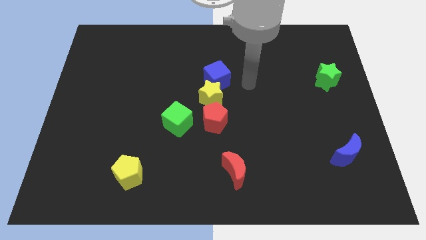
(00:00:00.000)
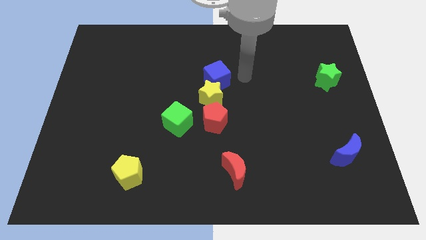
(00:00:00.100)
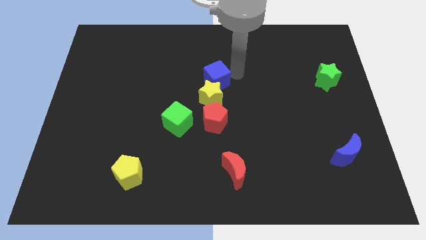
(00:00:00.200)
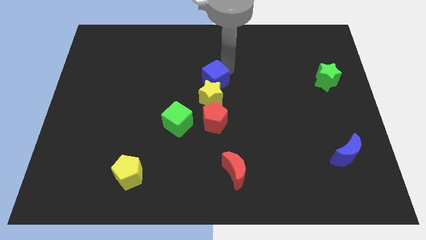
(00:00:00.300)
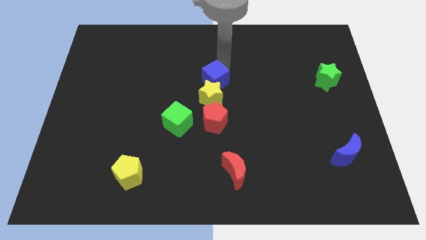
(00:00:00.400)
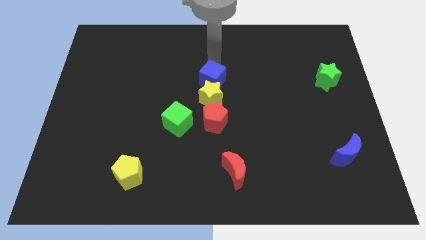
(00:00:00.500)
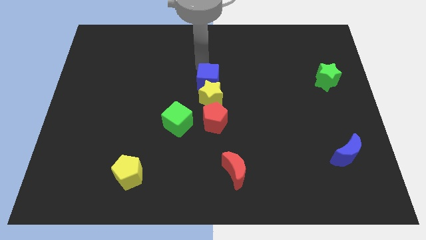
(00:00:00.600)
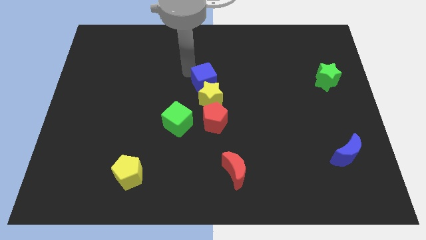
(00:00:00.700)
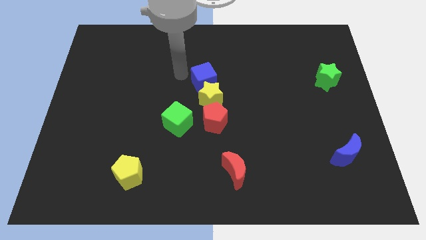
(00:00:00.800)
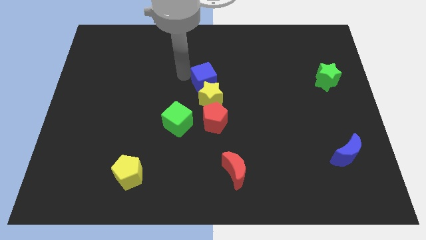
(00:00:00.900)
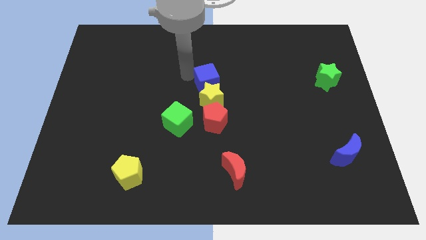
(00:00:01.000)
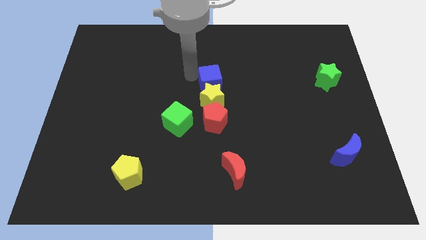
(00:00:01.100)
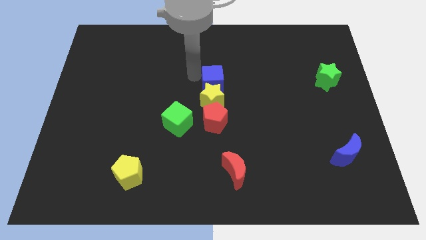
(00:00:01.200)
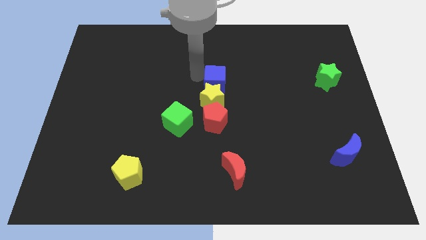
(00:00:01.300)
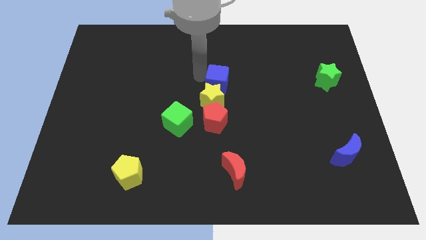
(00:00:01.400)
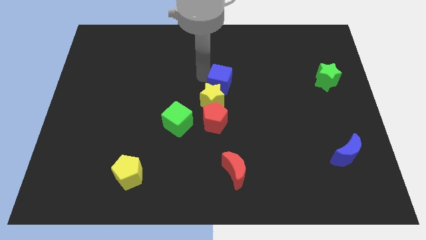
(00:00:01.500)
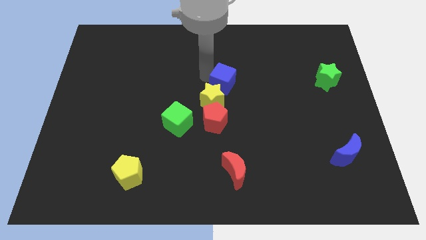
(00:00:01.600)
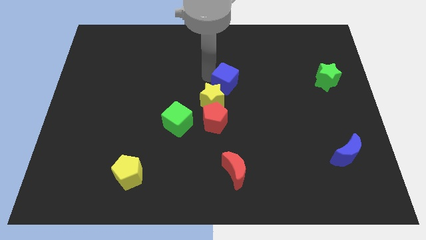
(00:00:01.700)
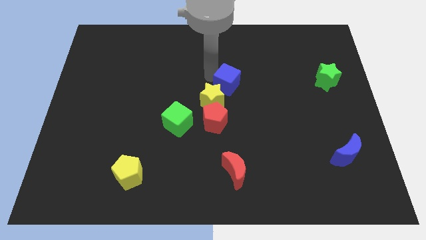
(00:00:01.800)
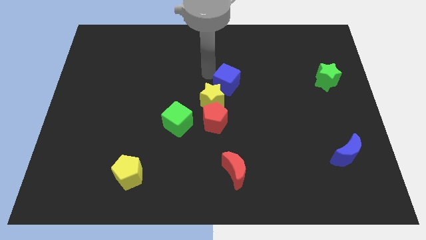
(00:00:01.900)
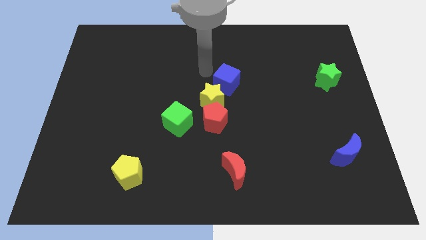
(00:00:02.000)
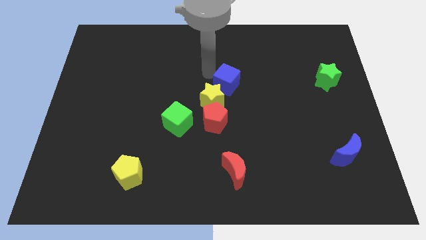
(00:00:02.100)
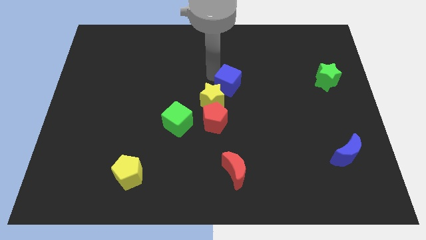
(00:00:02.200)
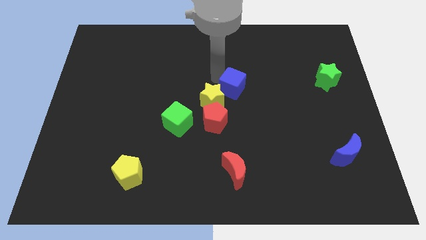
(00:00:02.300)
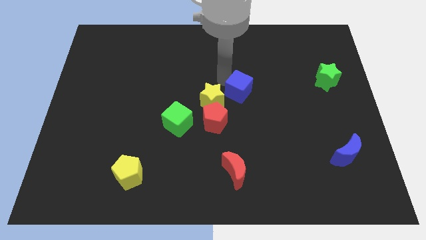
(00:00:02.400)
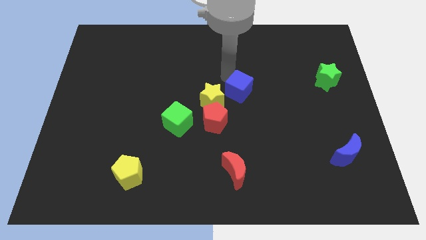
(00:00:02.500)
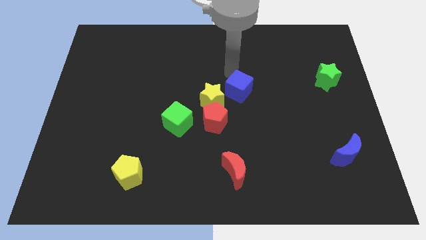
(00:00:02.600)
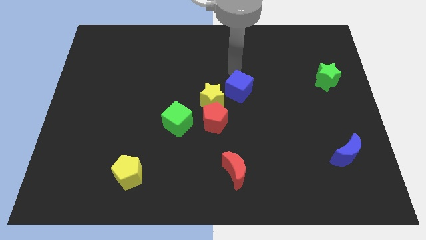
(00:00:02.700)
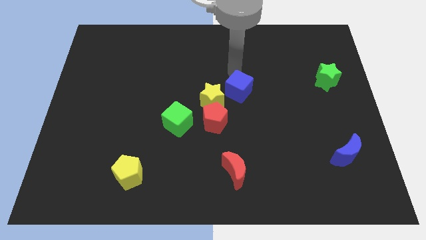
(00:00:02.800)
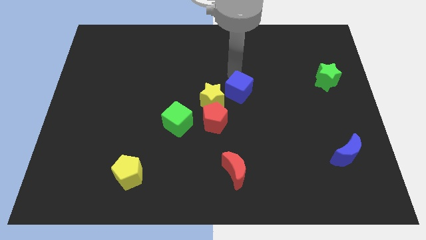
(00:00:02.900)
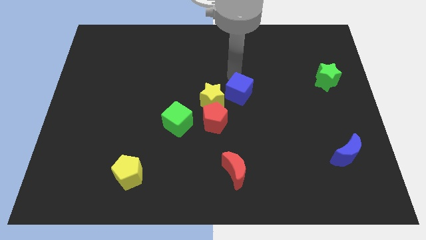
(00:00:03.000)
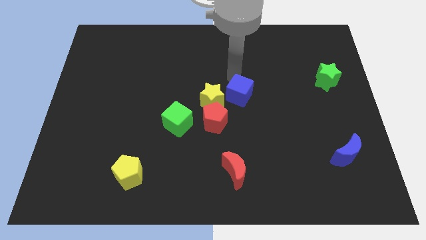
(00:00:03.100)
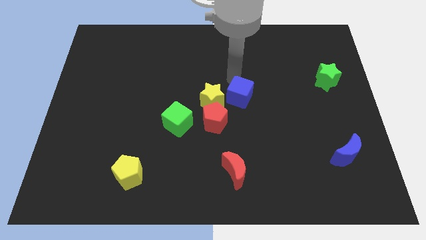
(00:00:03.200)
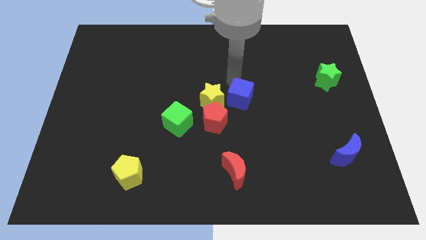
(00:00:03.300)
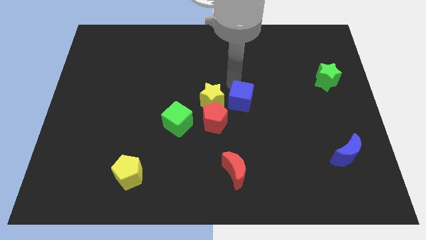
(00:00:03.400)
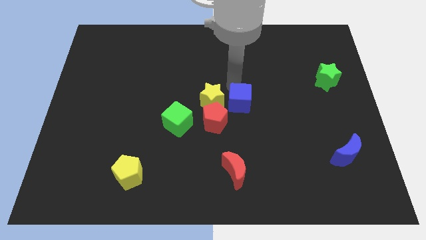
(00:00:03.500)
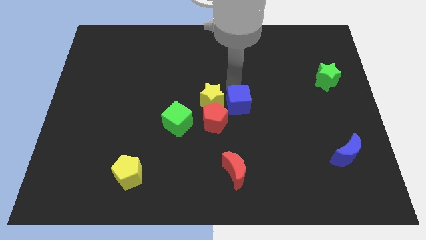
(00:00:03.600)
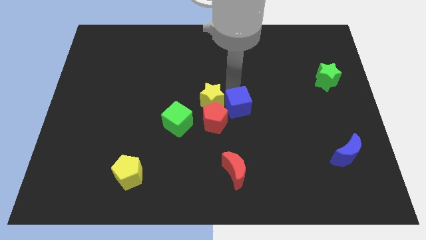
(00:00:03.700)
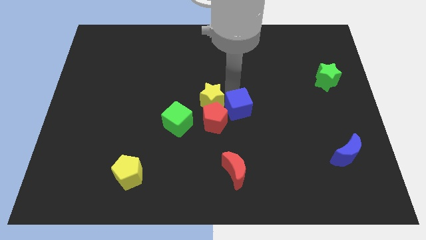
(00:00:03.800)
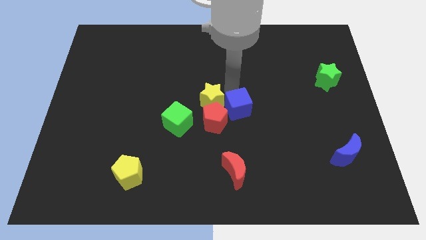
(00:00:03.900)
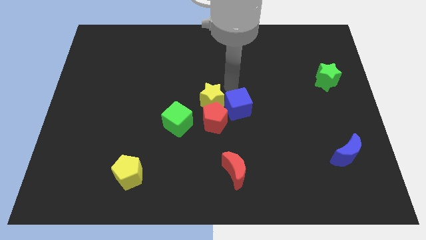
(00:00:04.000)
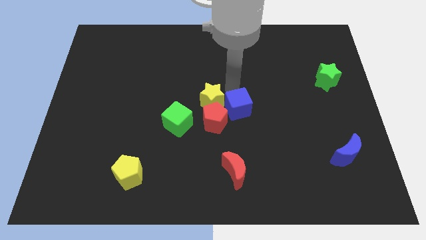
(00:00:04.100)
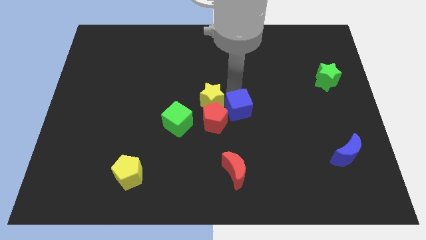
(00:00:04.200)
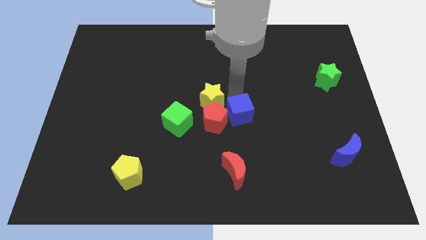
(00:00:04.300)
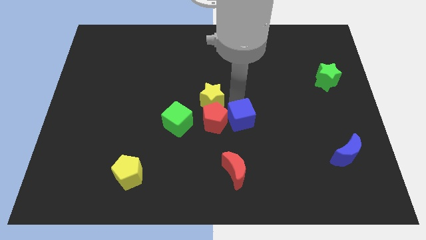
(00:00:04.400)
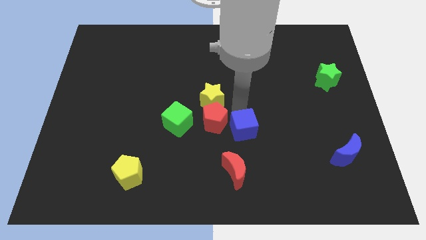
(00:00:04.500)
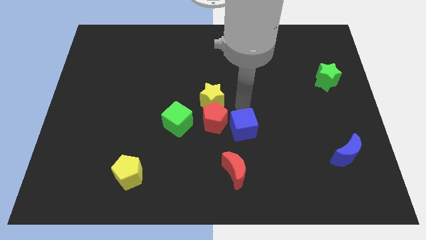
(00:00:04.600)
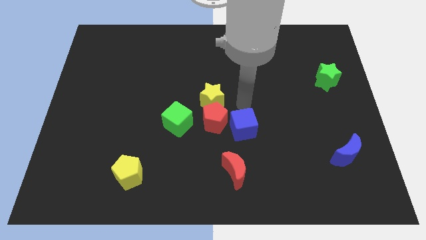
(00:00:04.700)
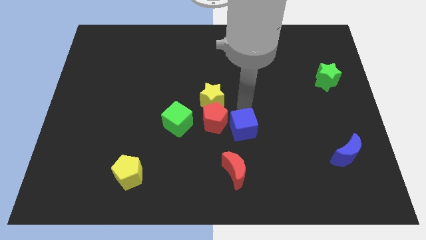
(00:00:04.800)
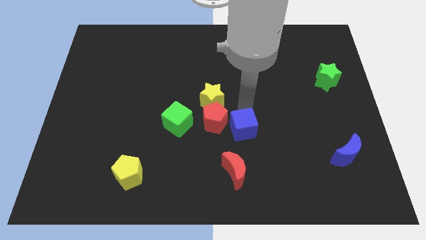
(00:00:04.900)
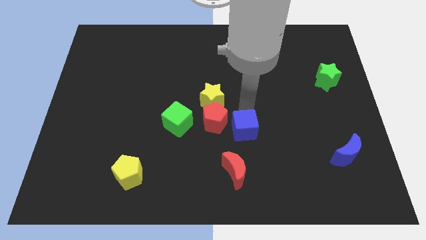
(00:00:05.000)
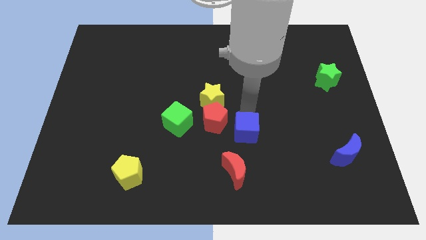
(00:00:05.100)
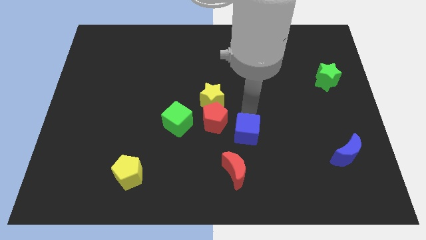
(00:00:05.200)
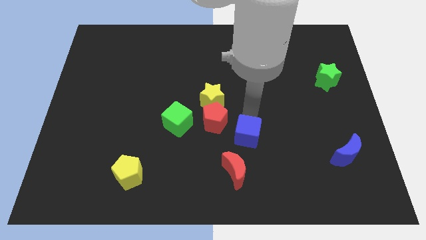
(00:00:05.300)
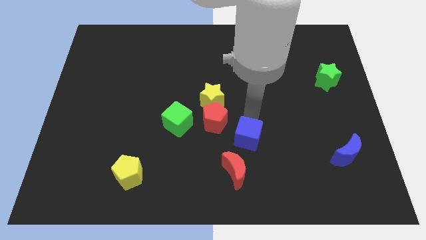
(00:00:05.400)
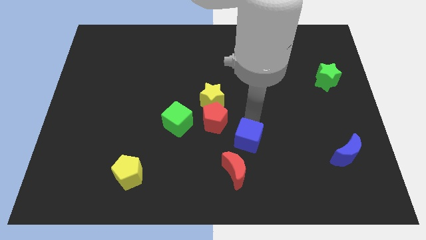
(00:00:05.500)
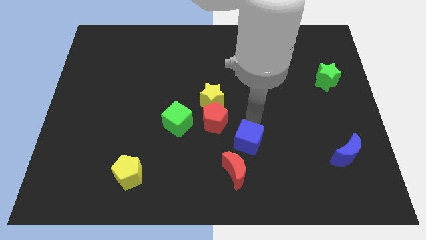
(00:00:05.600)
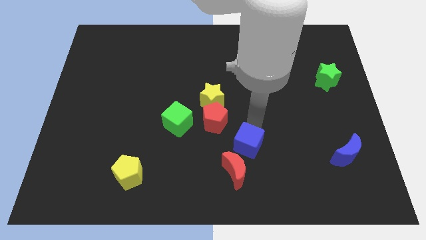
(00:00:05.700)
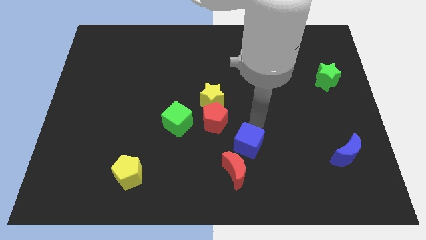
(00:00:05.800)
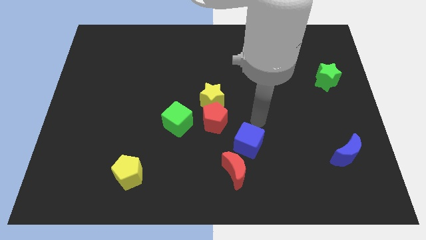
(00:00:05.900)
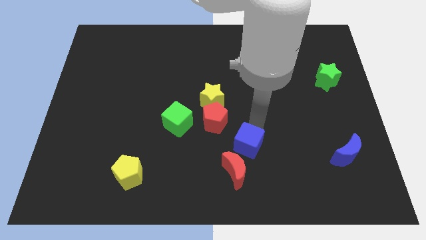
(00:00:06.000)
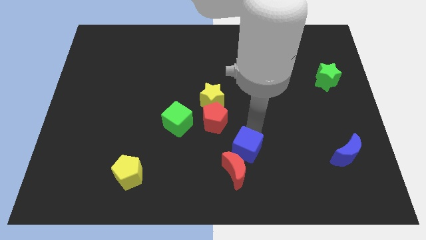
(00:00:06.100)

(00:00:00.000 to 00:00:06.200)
put the blue cube to the red moon

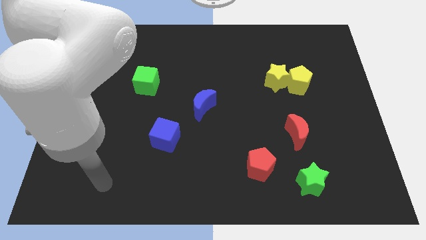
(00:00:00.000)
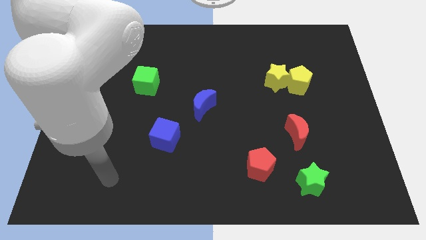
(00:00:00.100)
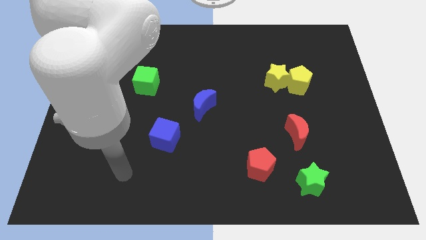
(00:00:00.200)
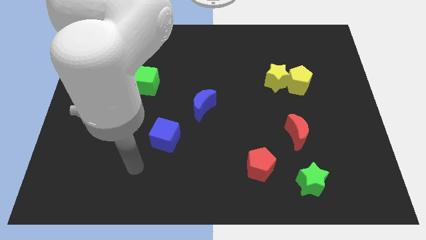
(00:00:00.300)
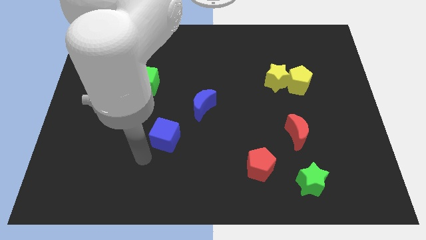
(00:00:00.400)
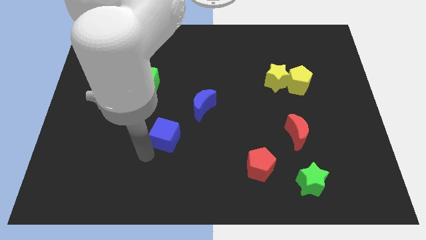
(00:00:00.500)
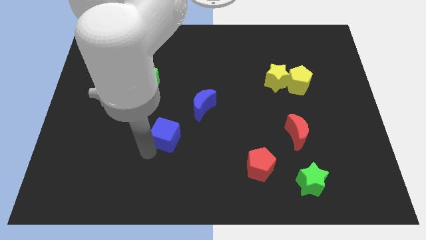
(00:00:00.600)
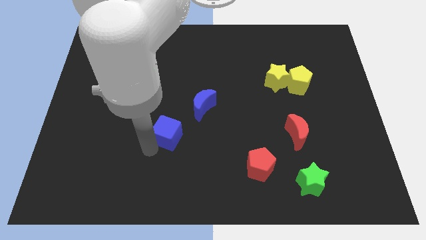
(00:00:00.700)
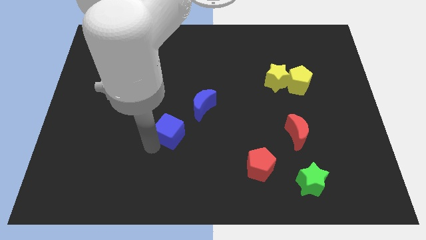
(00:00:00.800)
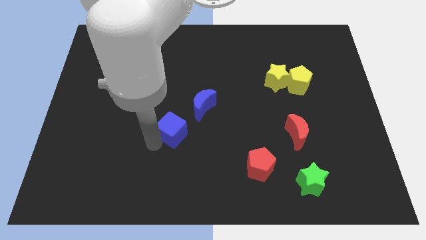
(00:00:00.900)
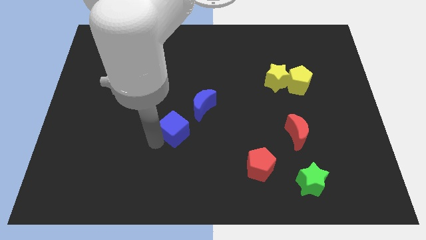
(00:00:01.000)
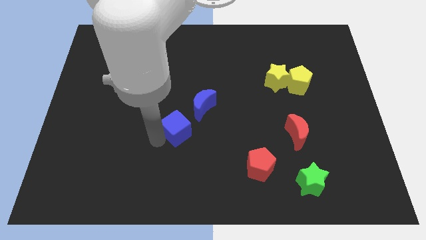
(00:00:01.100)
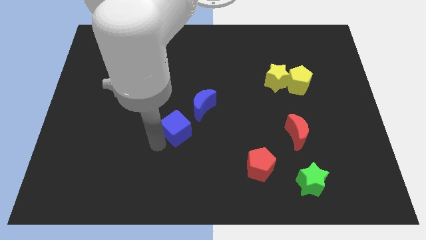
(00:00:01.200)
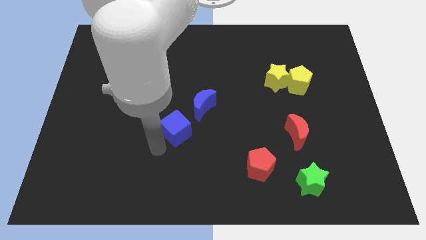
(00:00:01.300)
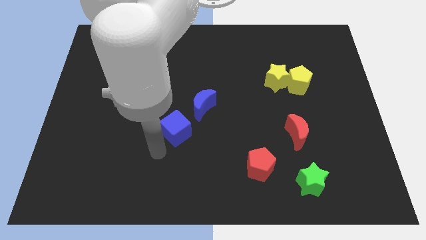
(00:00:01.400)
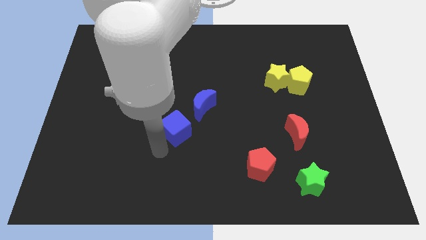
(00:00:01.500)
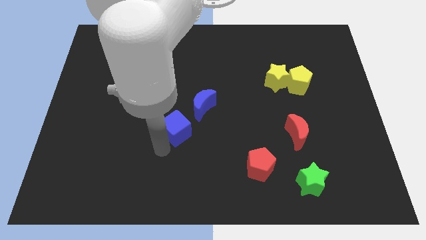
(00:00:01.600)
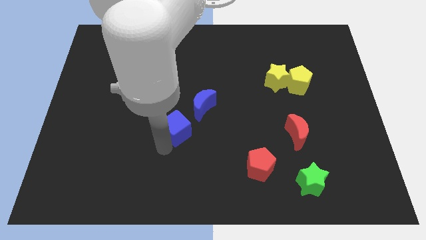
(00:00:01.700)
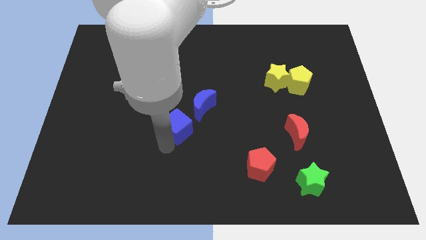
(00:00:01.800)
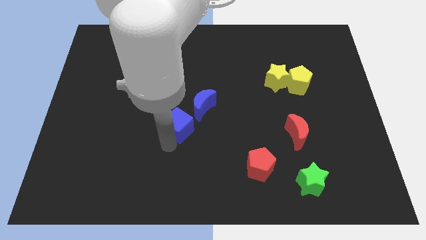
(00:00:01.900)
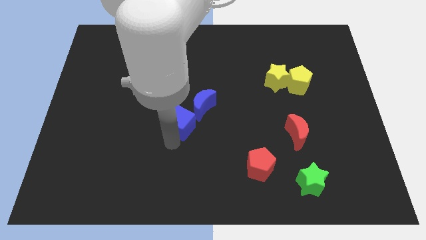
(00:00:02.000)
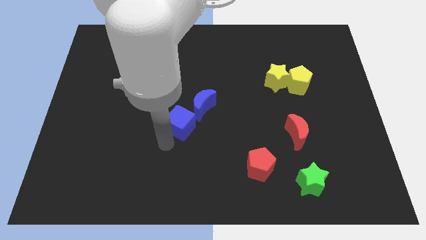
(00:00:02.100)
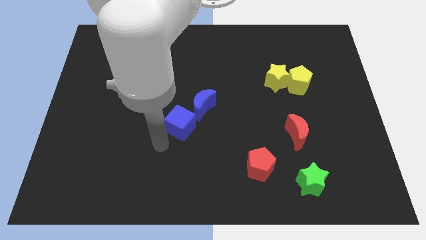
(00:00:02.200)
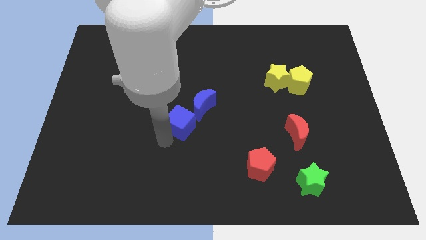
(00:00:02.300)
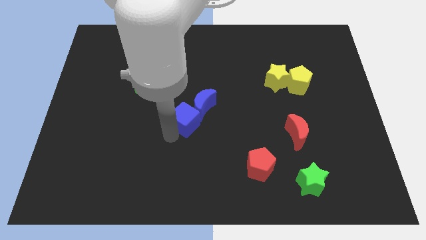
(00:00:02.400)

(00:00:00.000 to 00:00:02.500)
slide the blue cube to the blue moon
